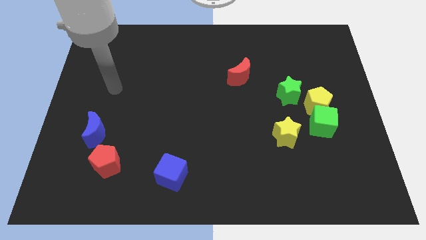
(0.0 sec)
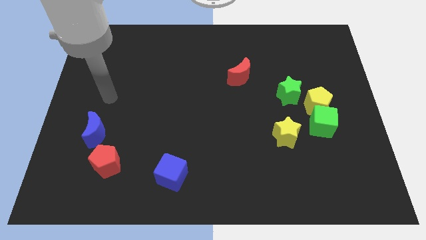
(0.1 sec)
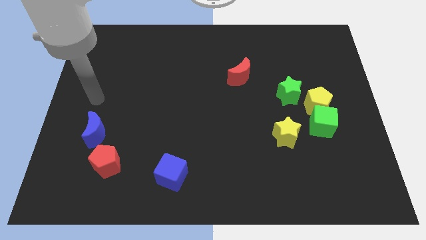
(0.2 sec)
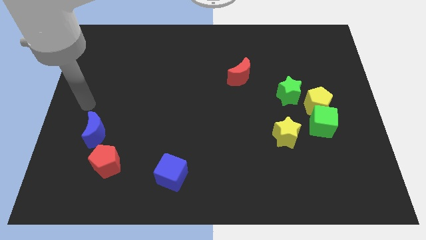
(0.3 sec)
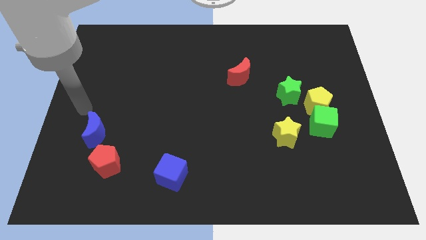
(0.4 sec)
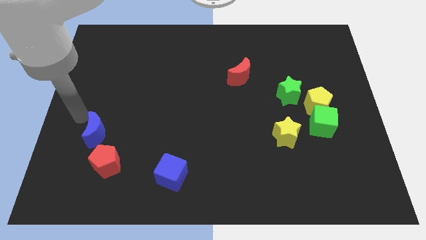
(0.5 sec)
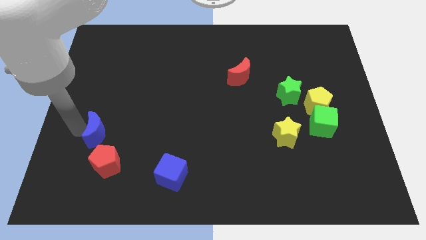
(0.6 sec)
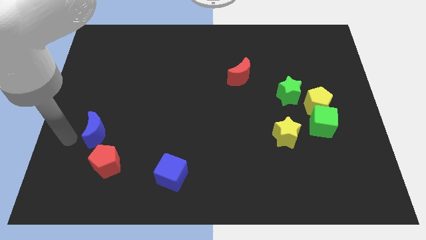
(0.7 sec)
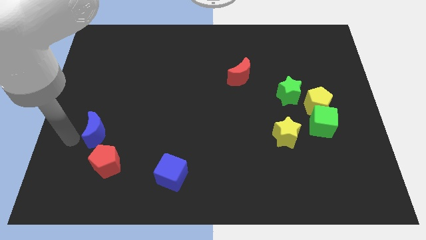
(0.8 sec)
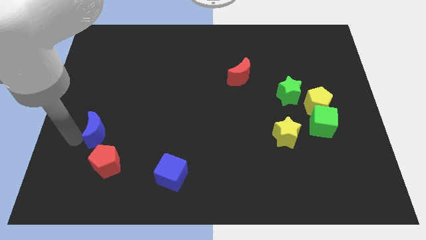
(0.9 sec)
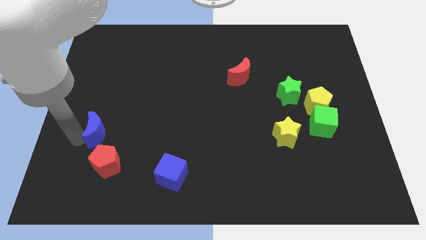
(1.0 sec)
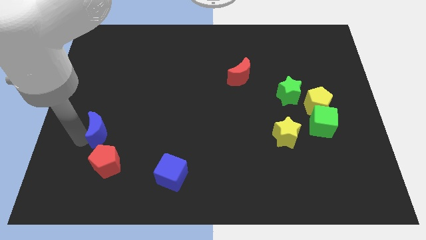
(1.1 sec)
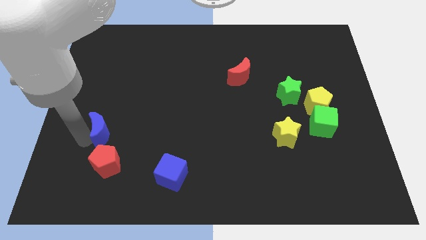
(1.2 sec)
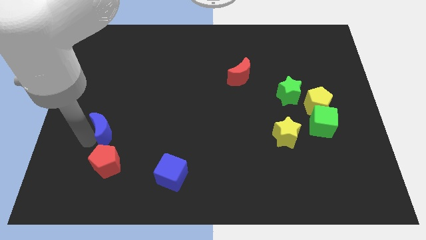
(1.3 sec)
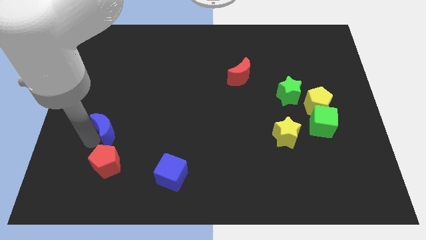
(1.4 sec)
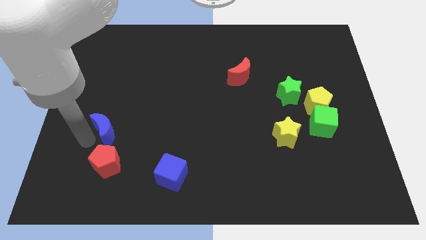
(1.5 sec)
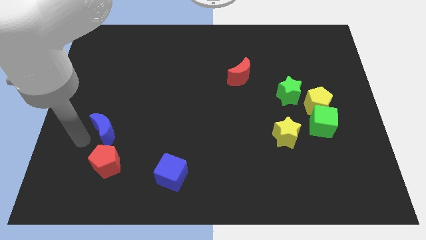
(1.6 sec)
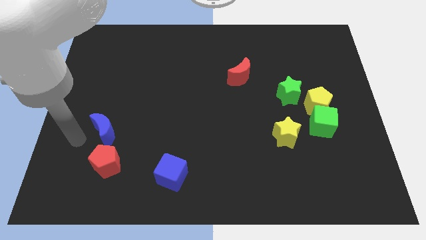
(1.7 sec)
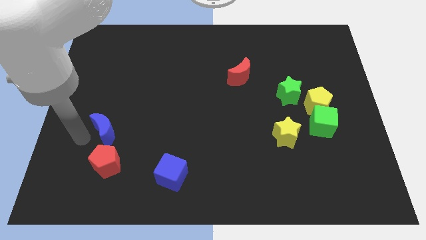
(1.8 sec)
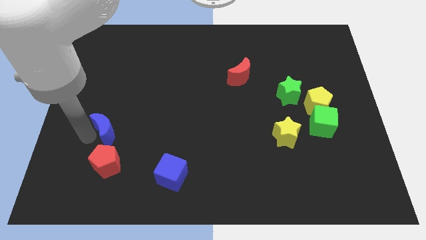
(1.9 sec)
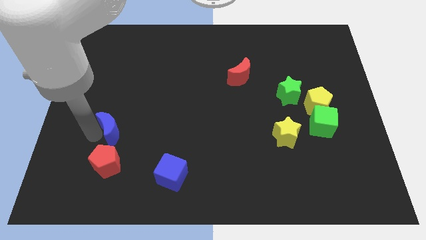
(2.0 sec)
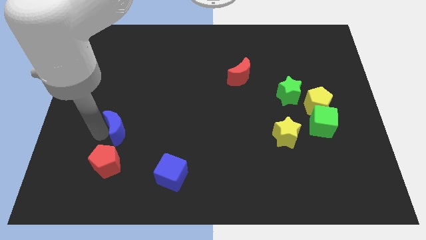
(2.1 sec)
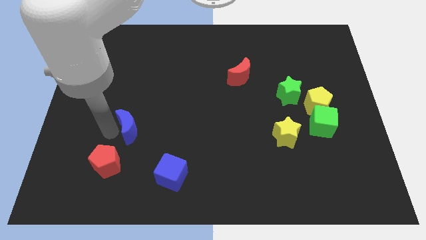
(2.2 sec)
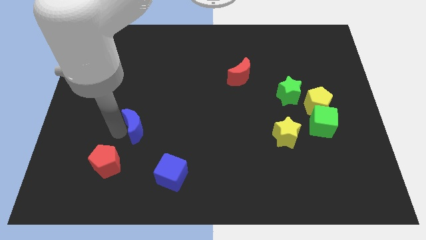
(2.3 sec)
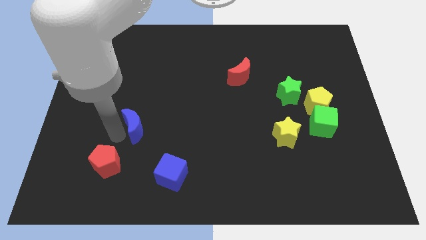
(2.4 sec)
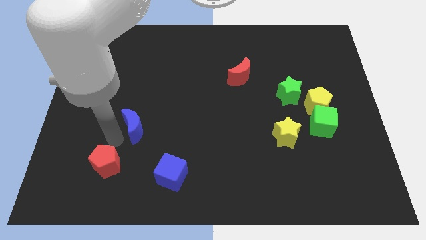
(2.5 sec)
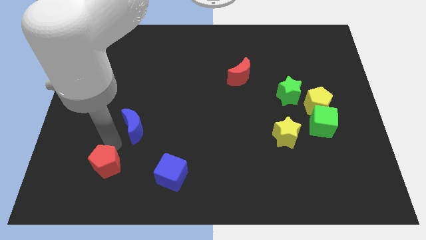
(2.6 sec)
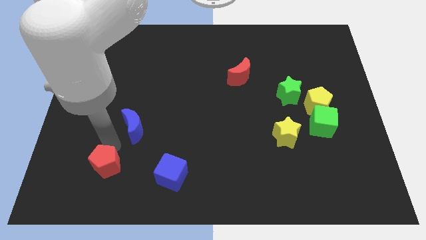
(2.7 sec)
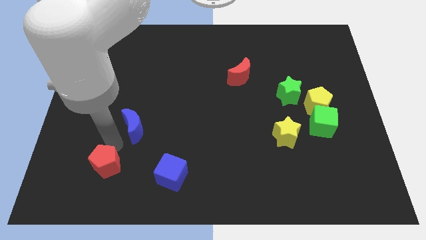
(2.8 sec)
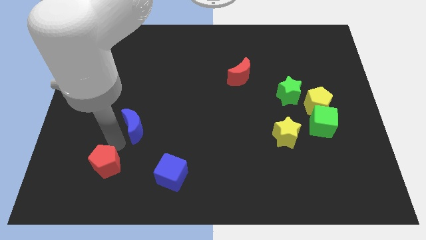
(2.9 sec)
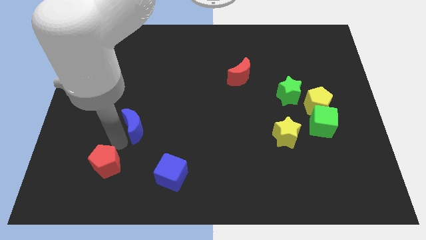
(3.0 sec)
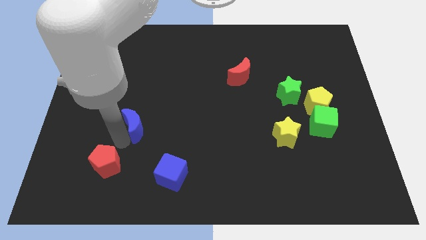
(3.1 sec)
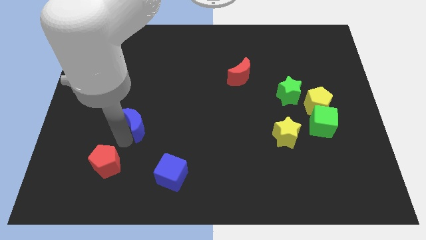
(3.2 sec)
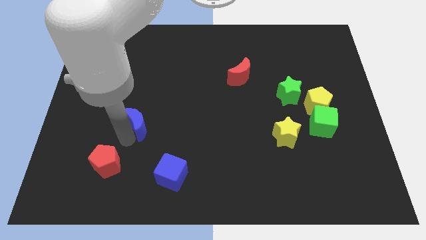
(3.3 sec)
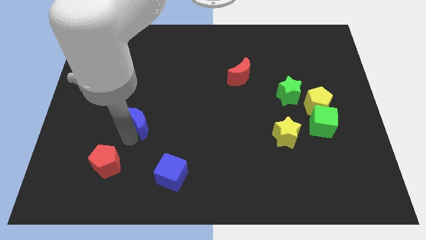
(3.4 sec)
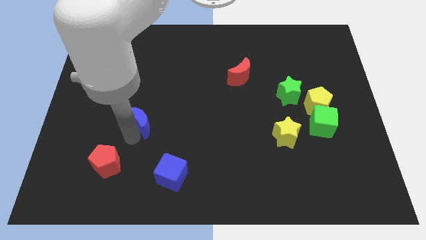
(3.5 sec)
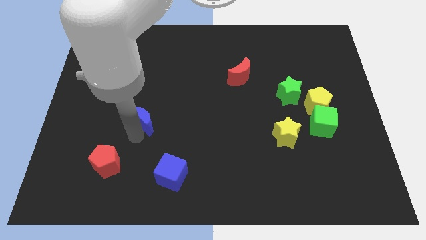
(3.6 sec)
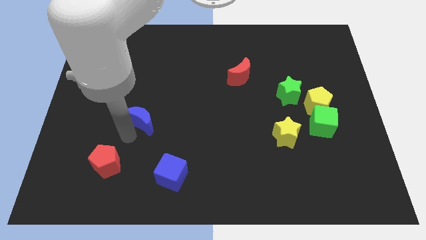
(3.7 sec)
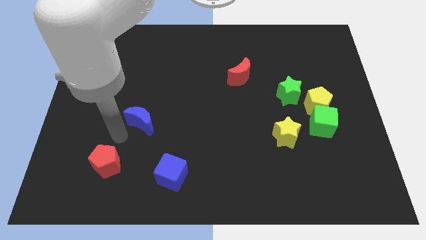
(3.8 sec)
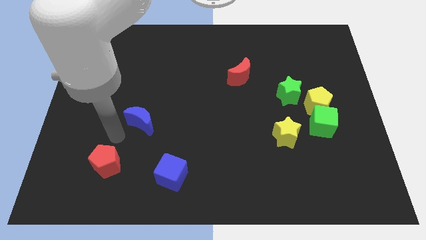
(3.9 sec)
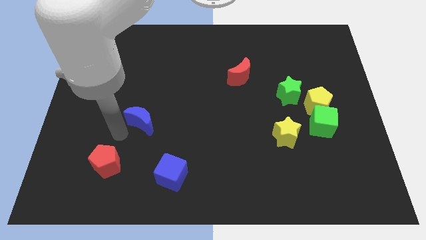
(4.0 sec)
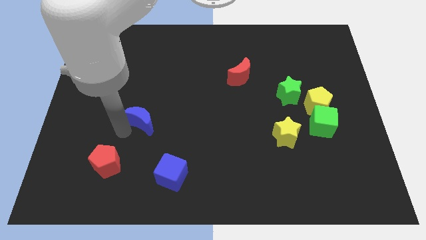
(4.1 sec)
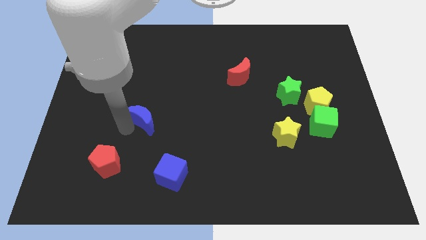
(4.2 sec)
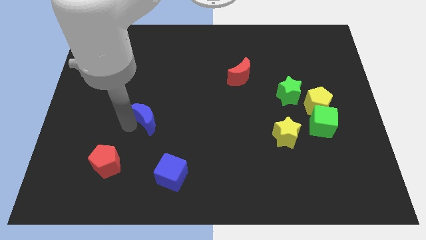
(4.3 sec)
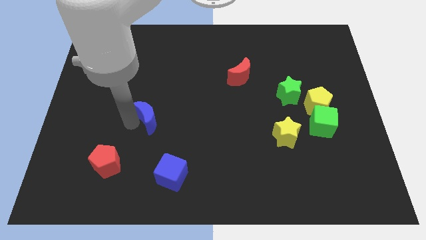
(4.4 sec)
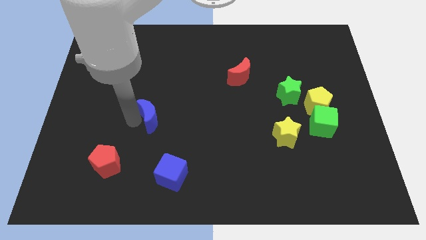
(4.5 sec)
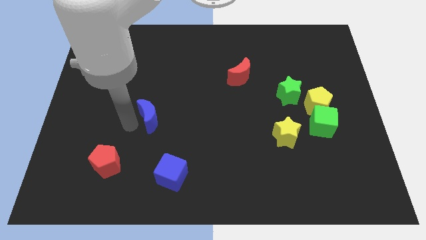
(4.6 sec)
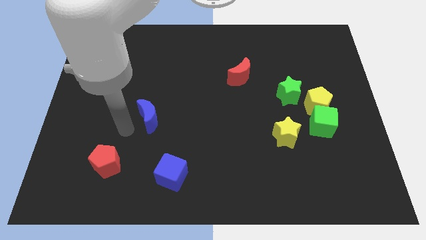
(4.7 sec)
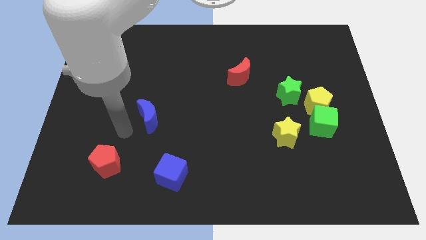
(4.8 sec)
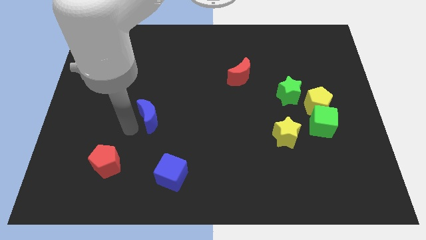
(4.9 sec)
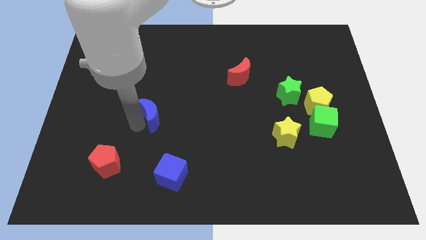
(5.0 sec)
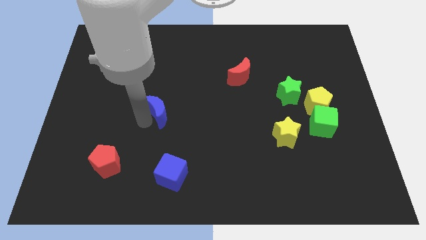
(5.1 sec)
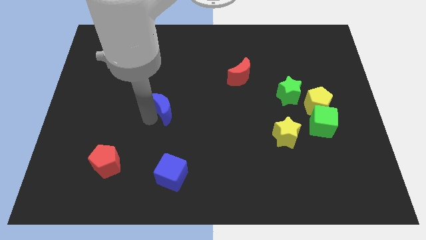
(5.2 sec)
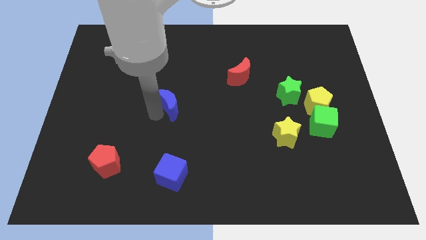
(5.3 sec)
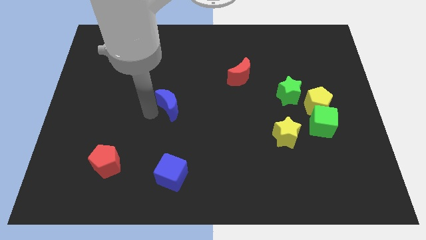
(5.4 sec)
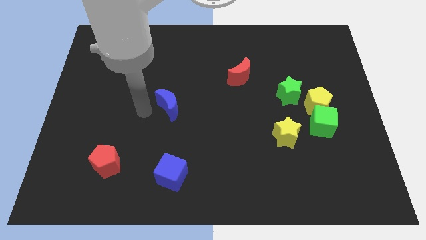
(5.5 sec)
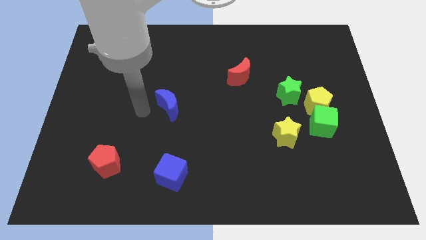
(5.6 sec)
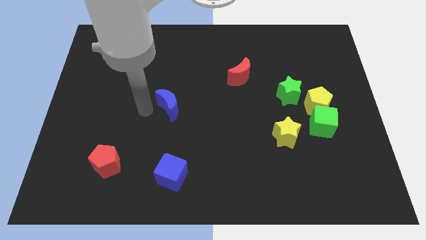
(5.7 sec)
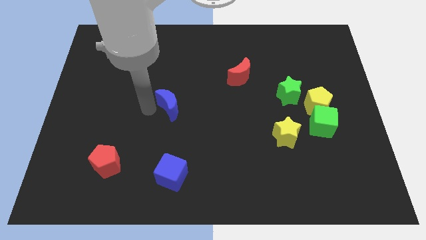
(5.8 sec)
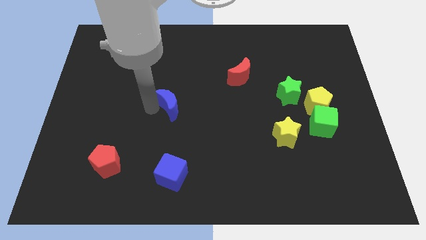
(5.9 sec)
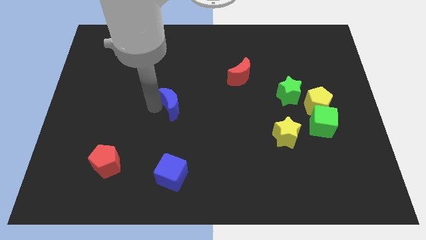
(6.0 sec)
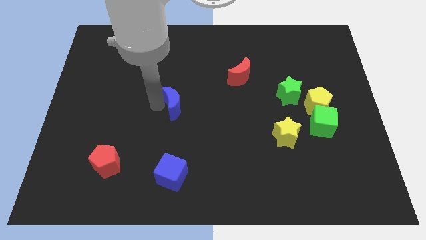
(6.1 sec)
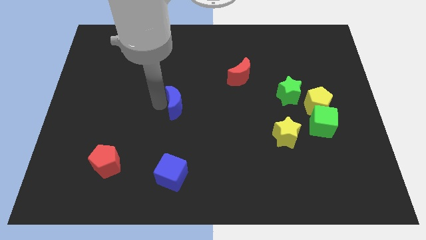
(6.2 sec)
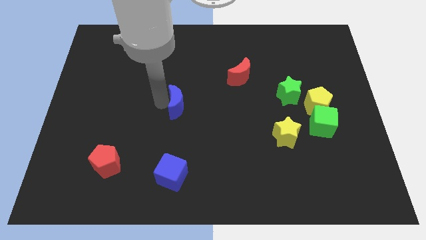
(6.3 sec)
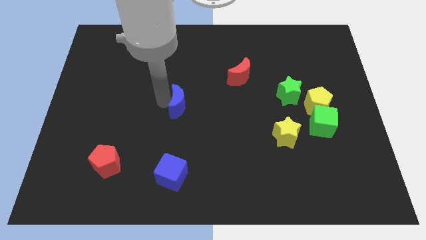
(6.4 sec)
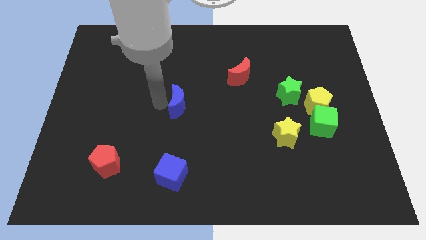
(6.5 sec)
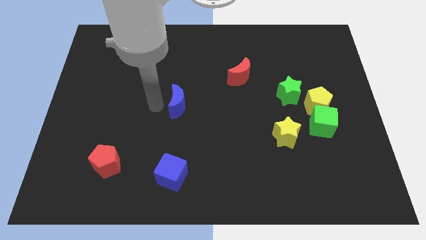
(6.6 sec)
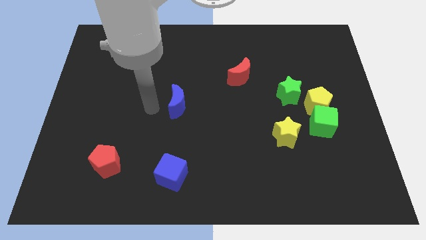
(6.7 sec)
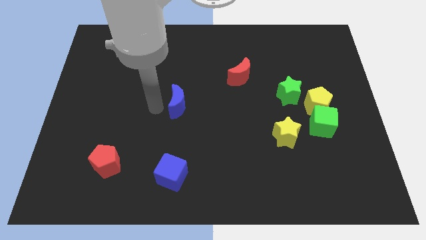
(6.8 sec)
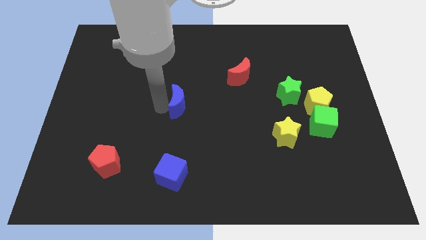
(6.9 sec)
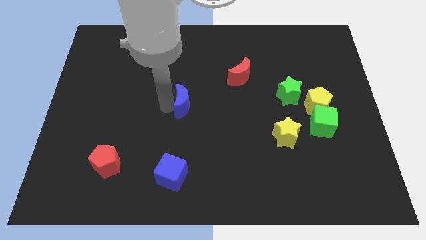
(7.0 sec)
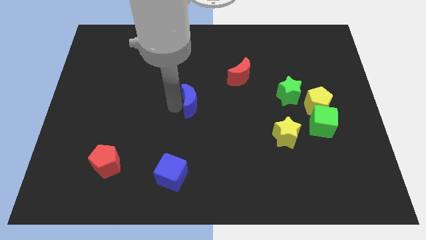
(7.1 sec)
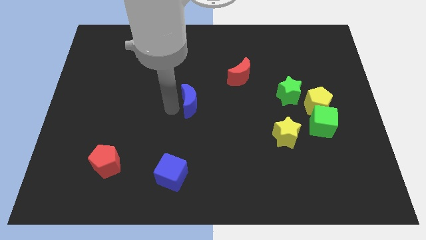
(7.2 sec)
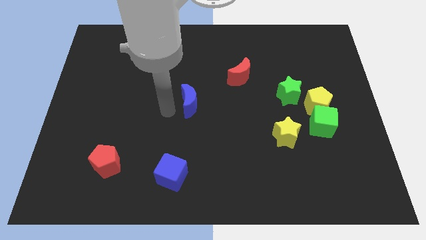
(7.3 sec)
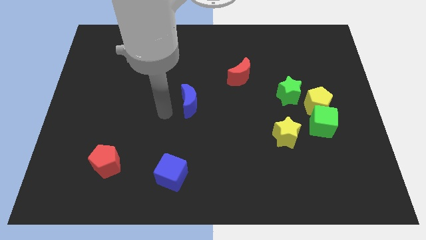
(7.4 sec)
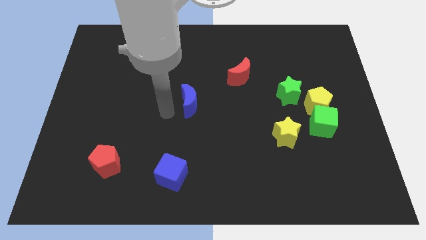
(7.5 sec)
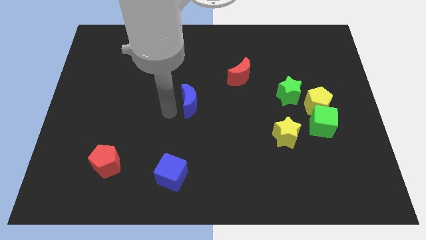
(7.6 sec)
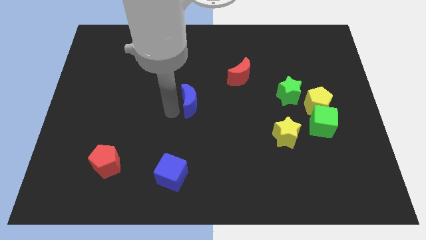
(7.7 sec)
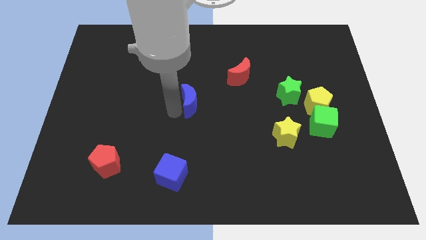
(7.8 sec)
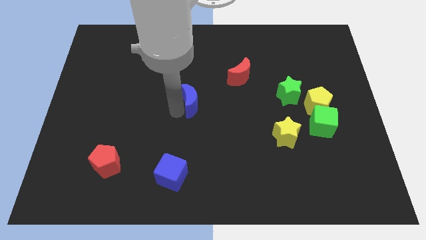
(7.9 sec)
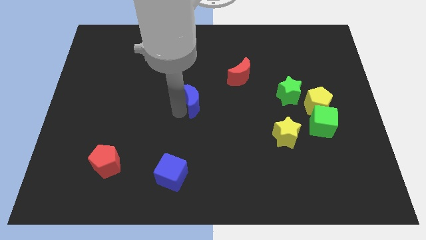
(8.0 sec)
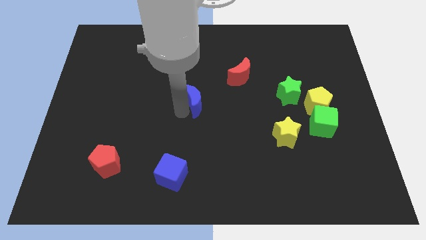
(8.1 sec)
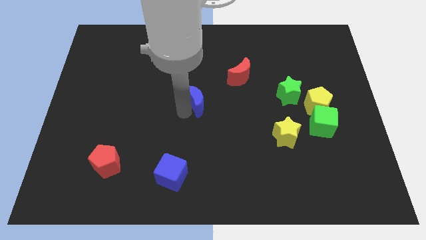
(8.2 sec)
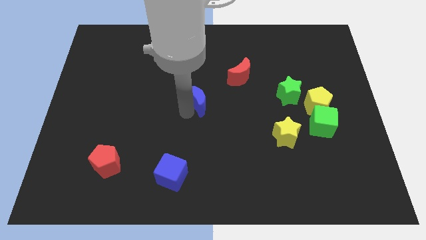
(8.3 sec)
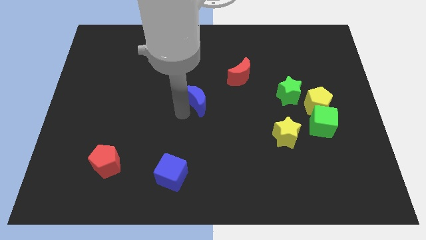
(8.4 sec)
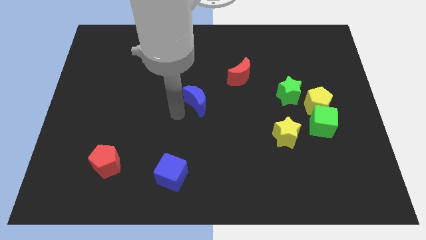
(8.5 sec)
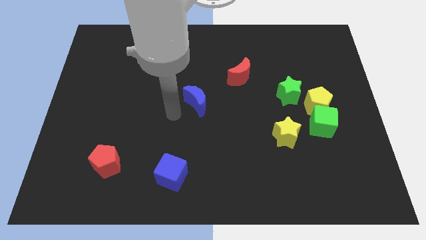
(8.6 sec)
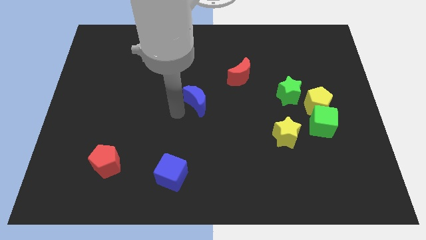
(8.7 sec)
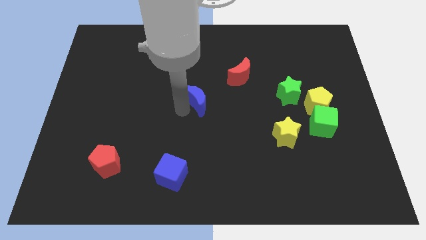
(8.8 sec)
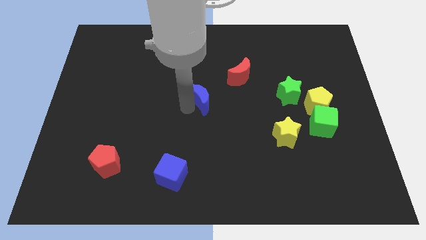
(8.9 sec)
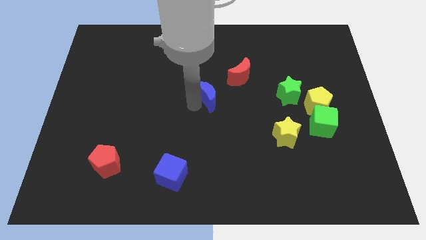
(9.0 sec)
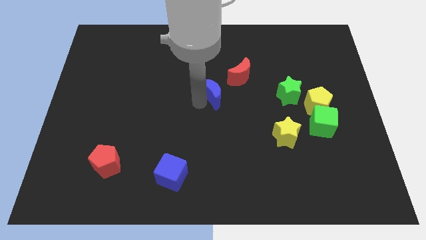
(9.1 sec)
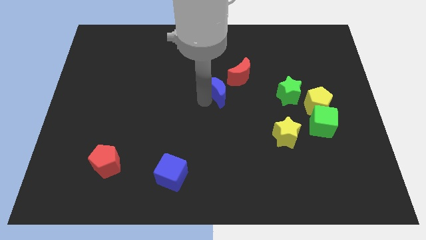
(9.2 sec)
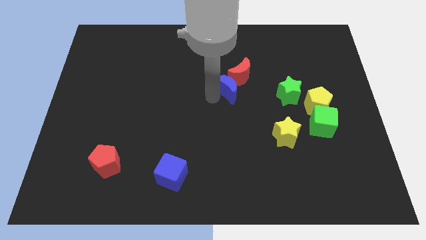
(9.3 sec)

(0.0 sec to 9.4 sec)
put the blue moon to the red moon
